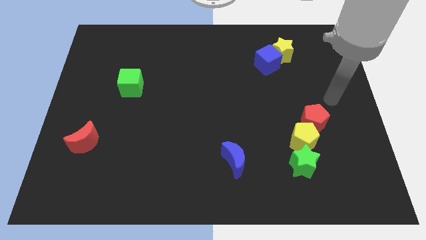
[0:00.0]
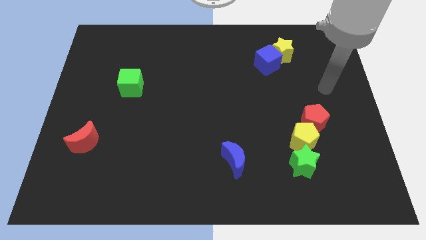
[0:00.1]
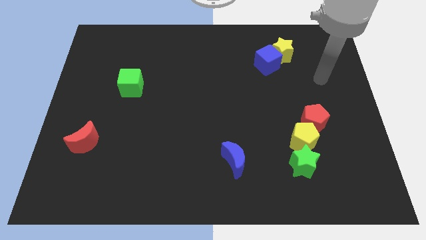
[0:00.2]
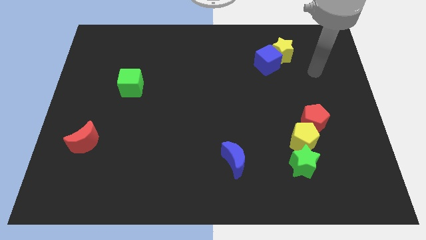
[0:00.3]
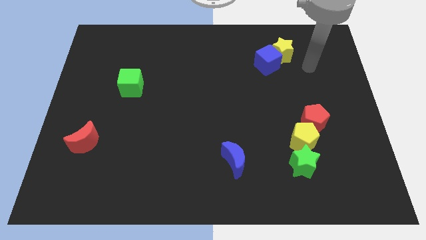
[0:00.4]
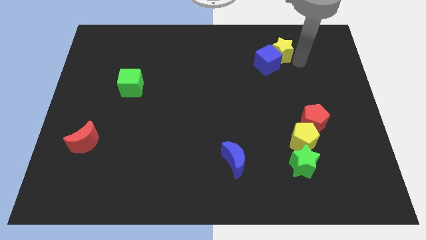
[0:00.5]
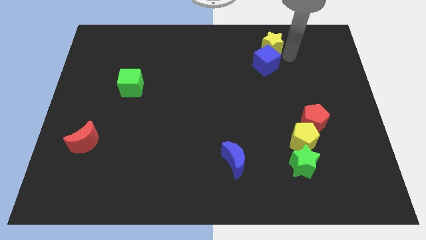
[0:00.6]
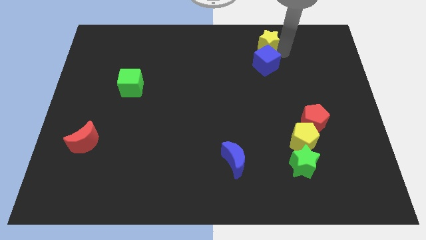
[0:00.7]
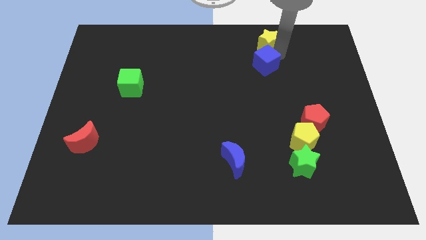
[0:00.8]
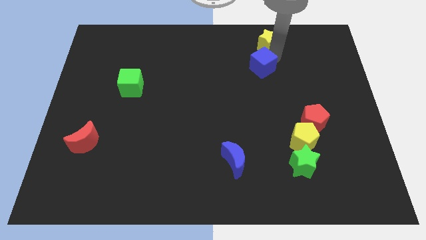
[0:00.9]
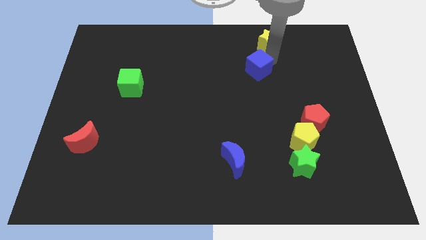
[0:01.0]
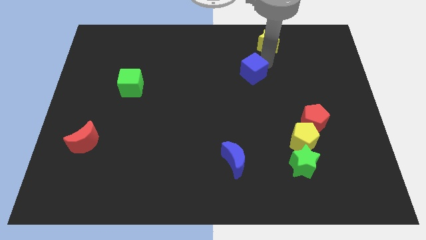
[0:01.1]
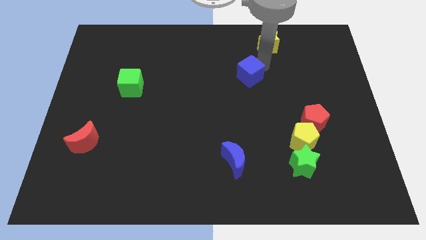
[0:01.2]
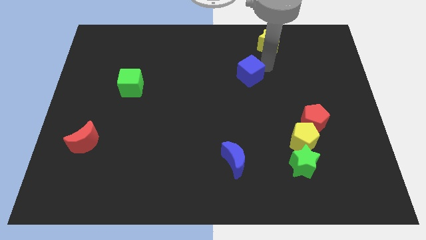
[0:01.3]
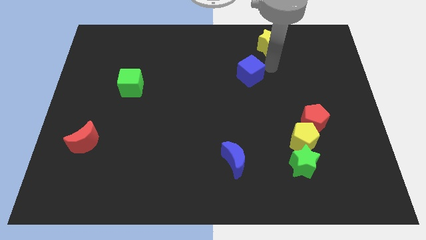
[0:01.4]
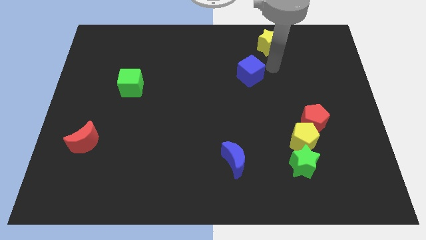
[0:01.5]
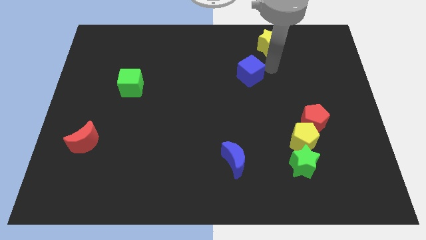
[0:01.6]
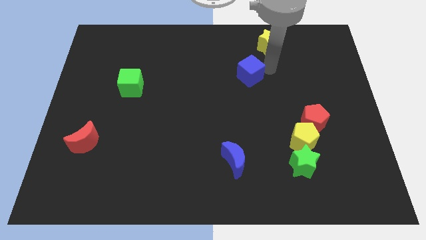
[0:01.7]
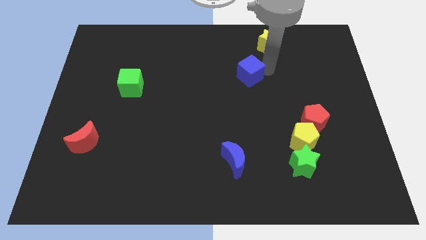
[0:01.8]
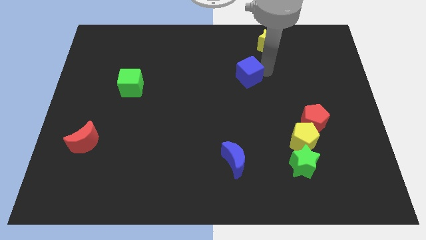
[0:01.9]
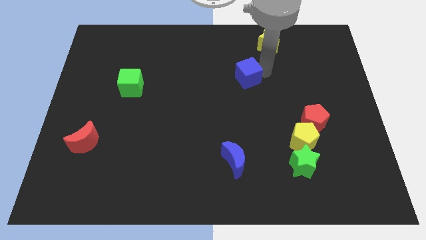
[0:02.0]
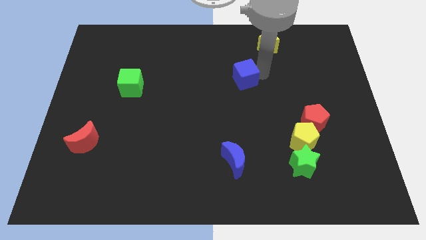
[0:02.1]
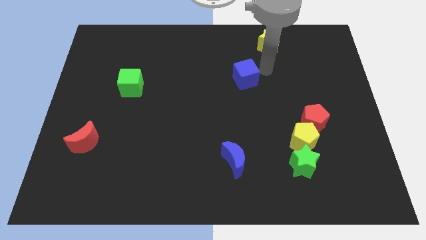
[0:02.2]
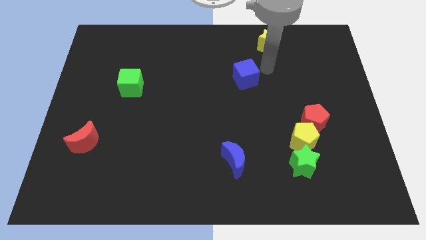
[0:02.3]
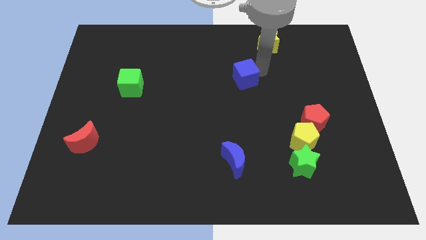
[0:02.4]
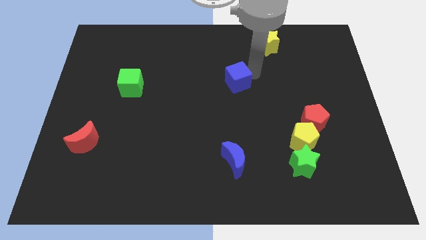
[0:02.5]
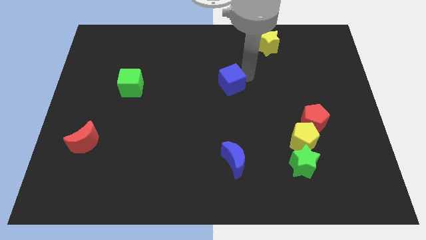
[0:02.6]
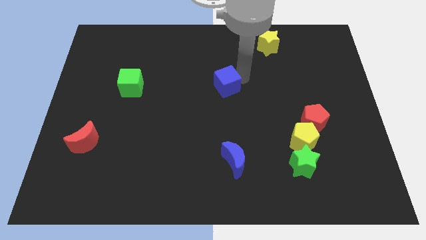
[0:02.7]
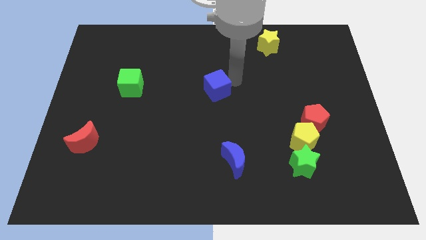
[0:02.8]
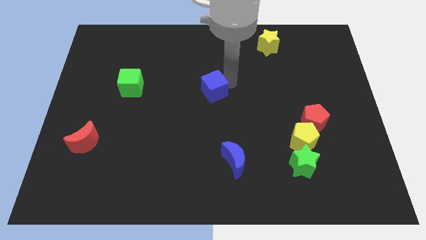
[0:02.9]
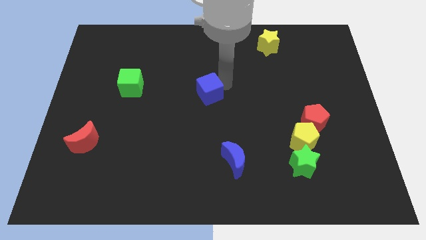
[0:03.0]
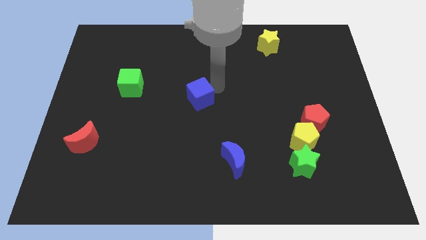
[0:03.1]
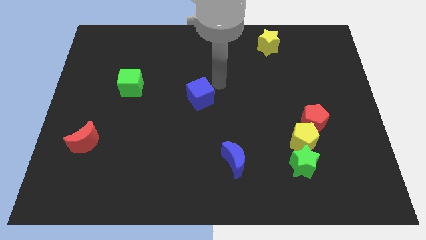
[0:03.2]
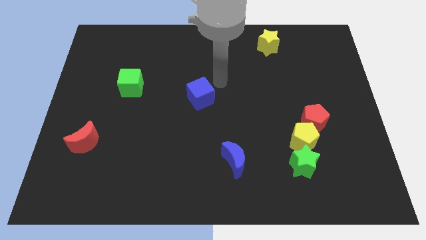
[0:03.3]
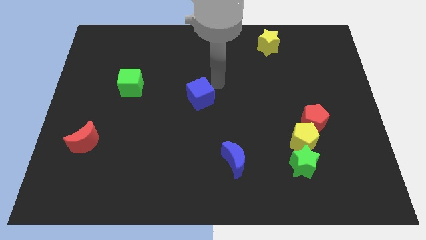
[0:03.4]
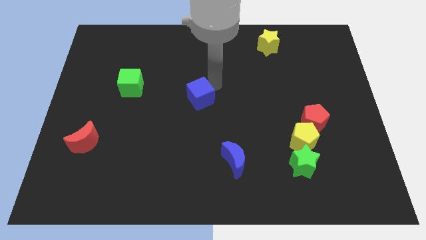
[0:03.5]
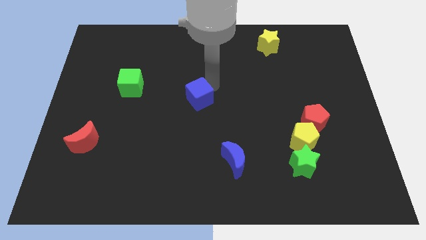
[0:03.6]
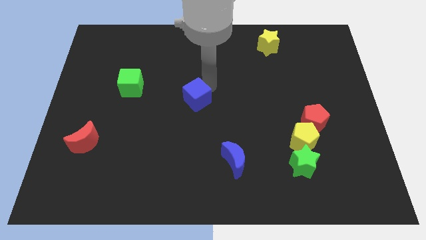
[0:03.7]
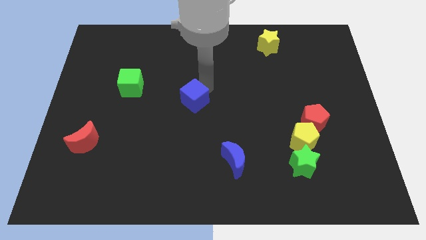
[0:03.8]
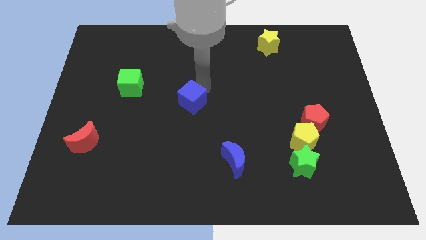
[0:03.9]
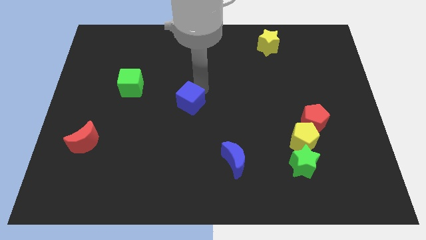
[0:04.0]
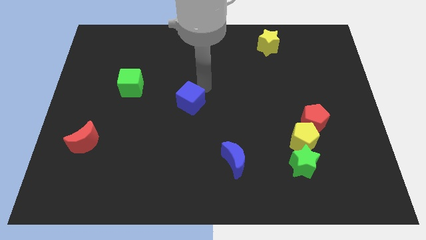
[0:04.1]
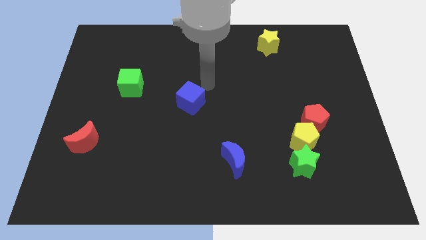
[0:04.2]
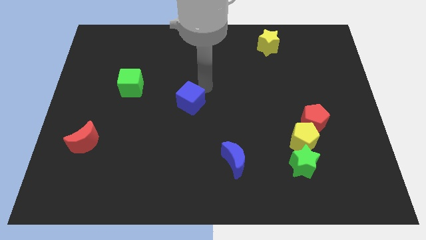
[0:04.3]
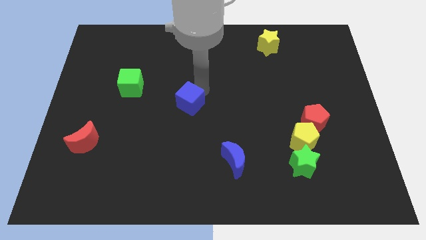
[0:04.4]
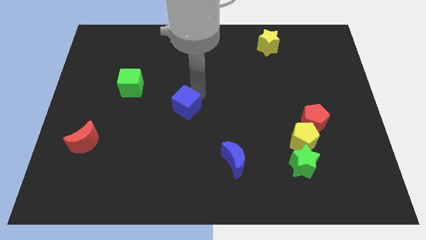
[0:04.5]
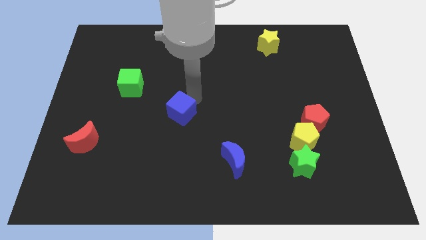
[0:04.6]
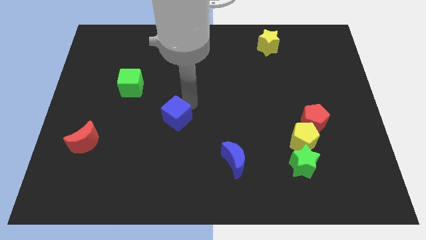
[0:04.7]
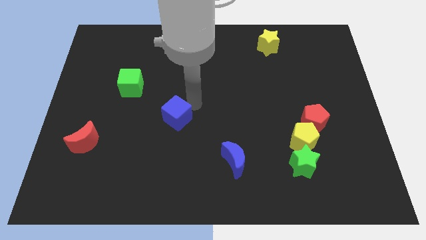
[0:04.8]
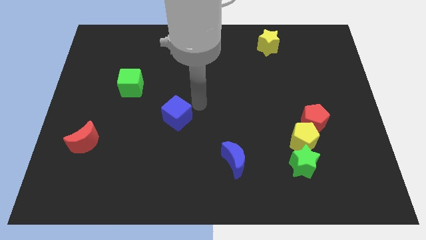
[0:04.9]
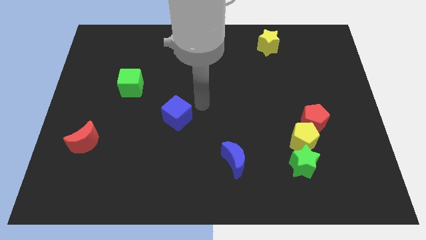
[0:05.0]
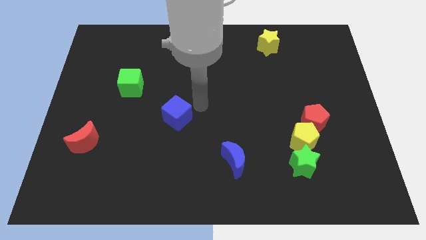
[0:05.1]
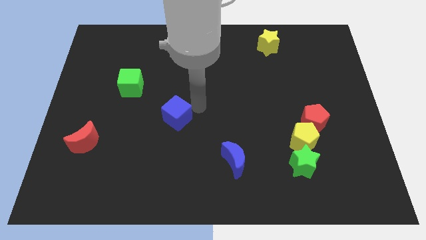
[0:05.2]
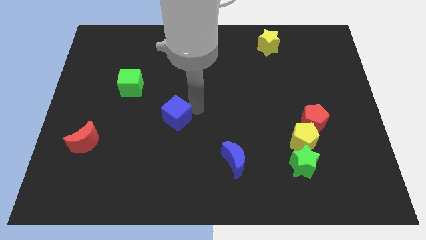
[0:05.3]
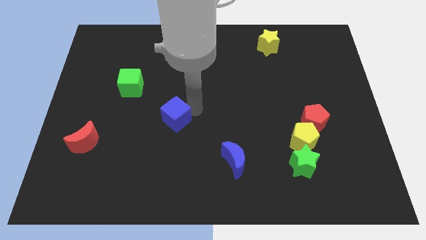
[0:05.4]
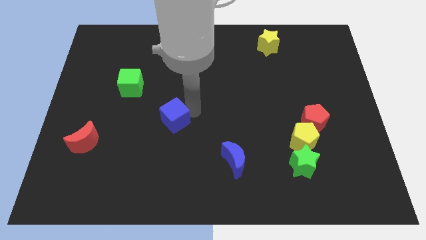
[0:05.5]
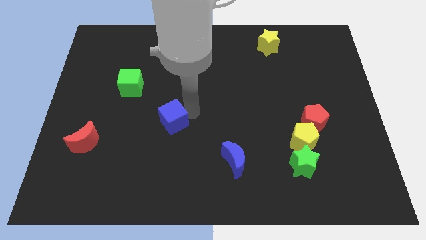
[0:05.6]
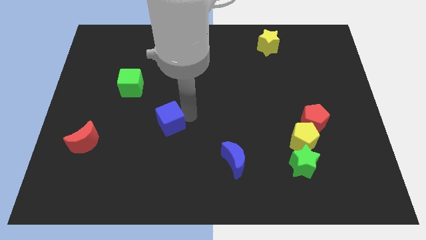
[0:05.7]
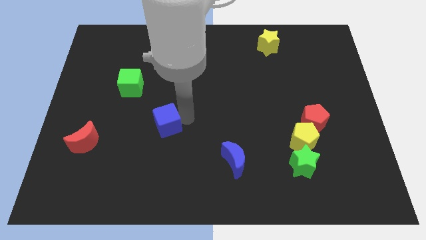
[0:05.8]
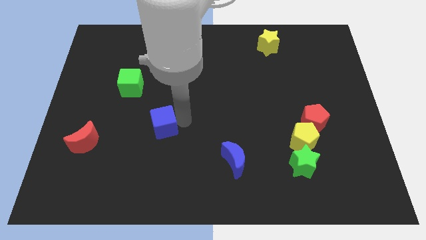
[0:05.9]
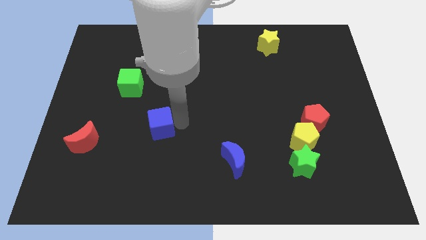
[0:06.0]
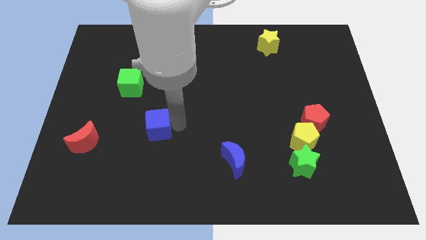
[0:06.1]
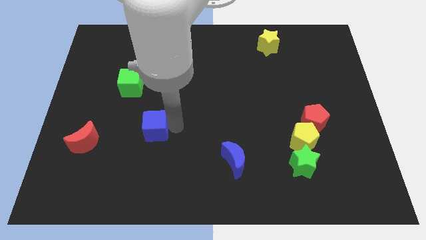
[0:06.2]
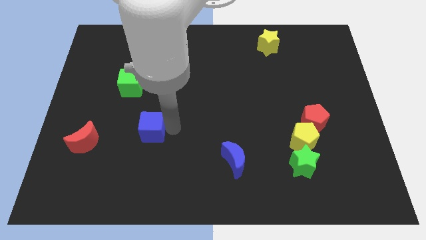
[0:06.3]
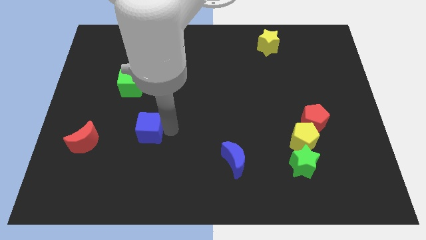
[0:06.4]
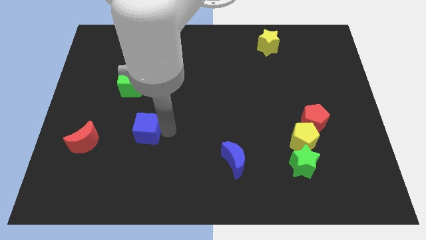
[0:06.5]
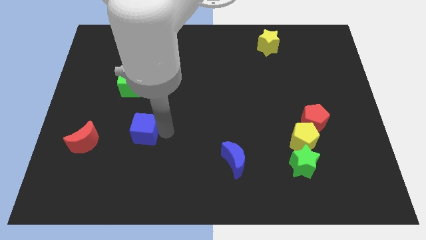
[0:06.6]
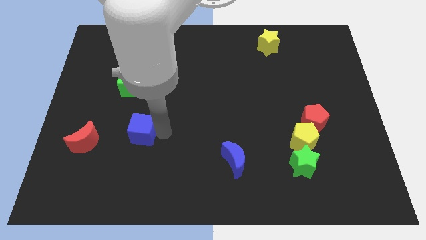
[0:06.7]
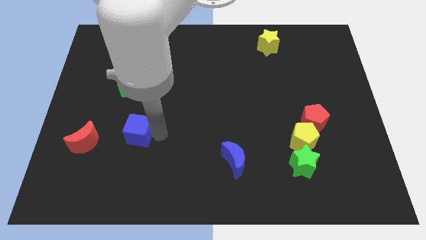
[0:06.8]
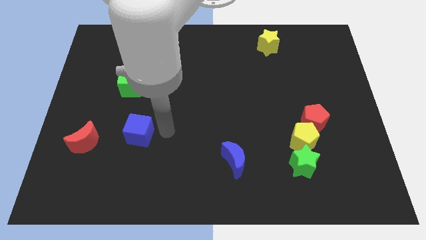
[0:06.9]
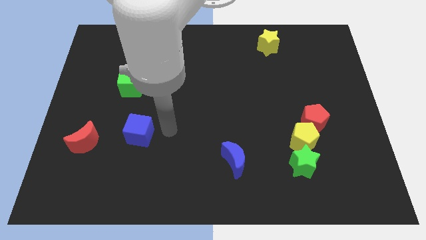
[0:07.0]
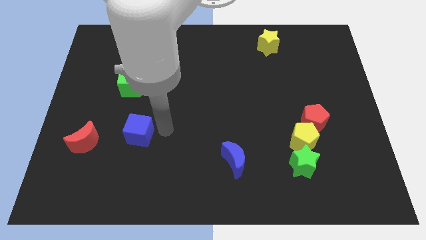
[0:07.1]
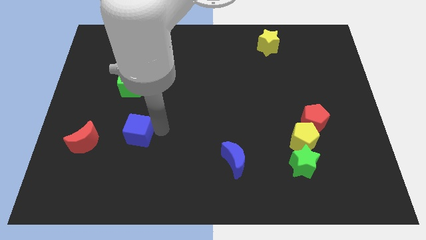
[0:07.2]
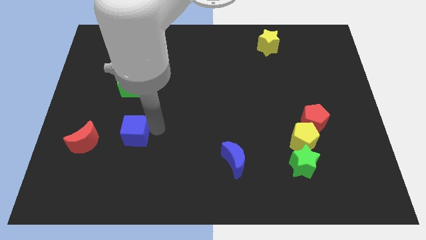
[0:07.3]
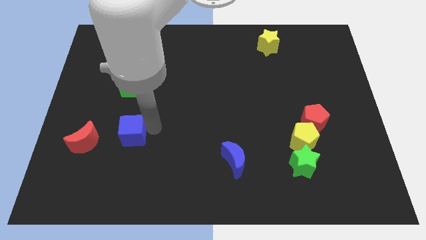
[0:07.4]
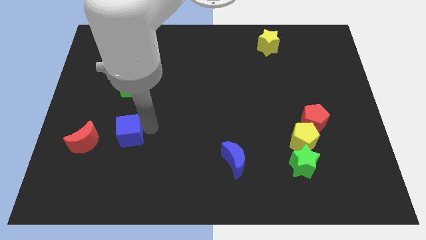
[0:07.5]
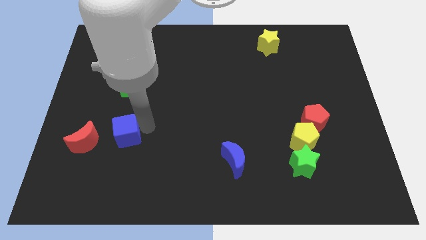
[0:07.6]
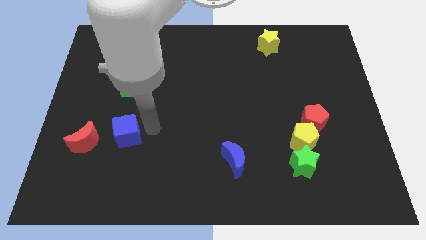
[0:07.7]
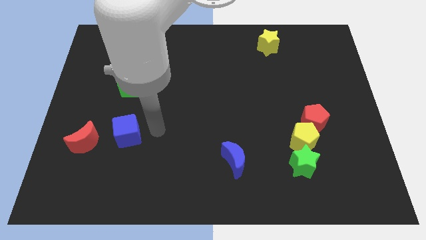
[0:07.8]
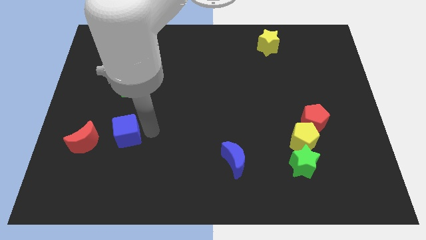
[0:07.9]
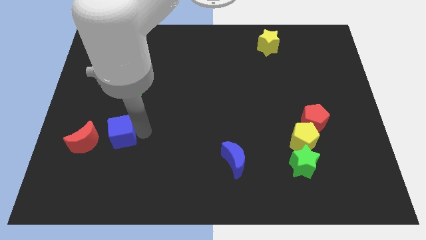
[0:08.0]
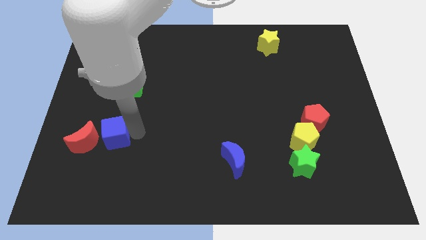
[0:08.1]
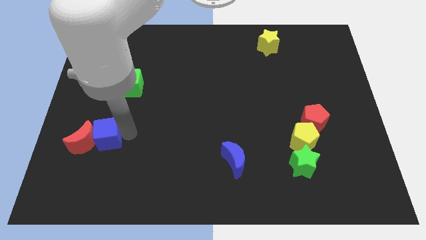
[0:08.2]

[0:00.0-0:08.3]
slide the blue cube close to the red moon
